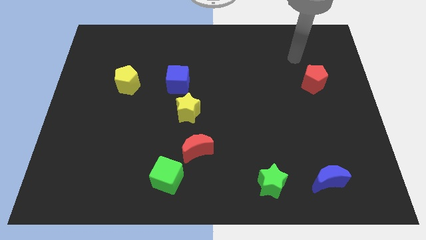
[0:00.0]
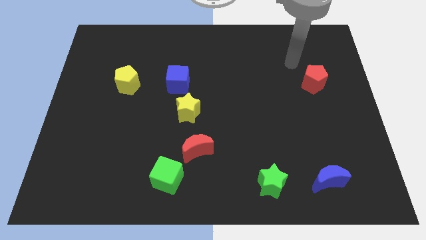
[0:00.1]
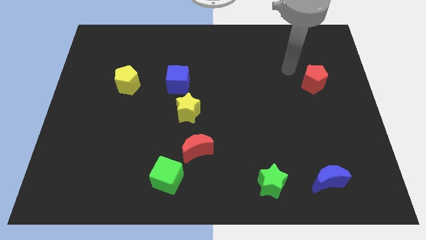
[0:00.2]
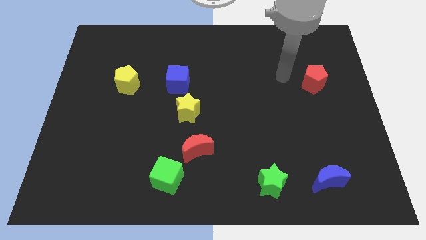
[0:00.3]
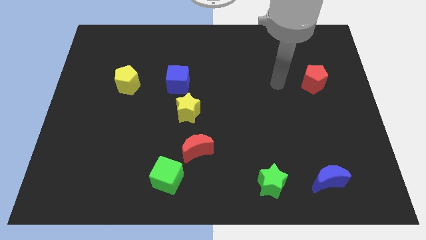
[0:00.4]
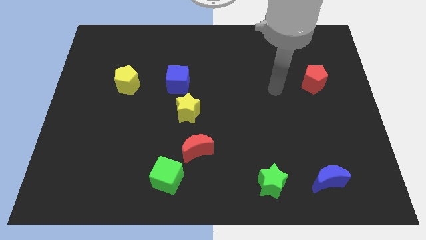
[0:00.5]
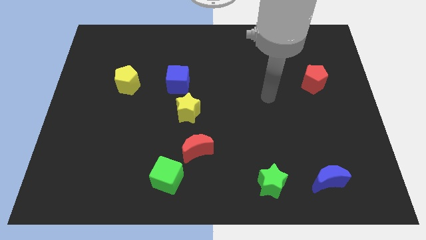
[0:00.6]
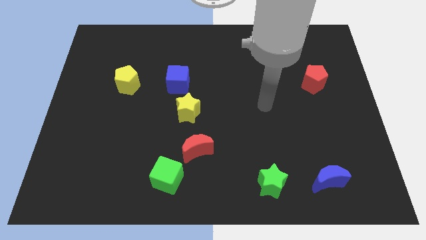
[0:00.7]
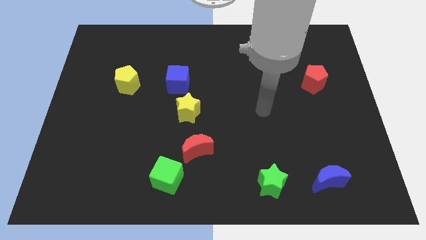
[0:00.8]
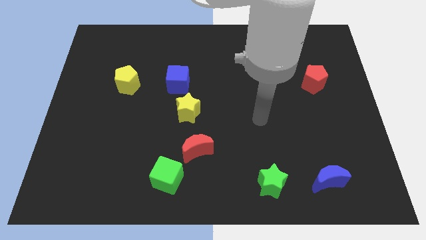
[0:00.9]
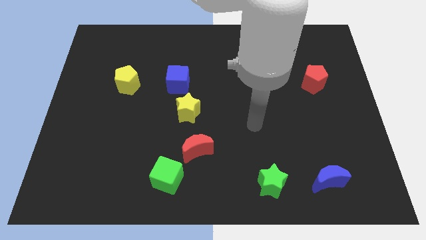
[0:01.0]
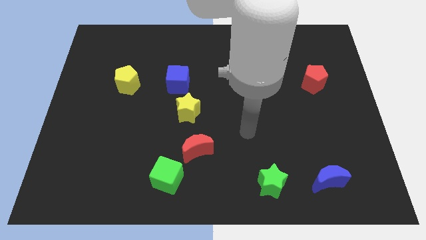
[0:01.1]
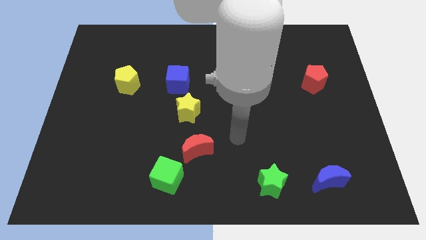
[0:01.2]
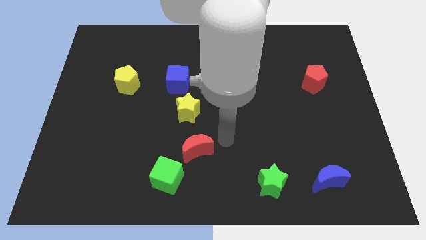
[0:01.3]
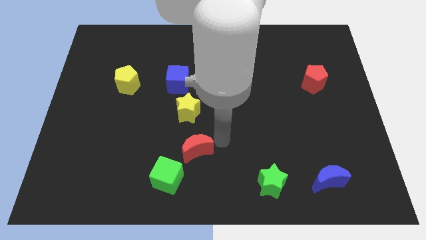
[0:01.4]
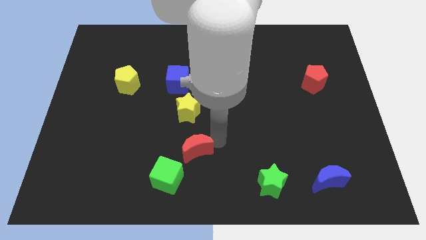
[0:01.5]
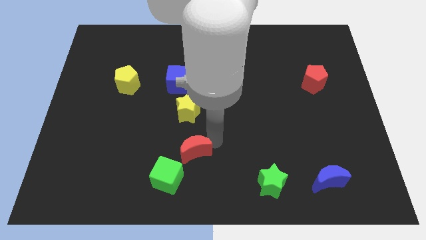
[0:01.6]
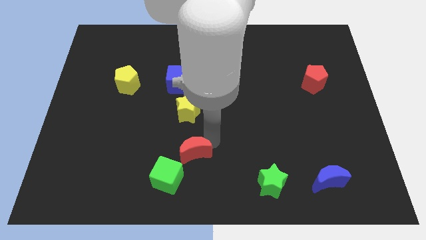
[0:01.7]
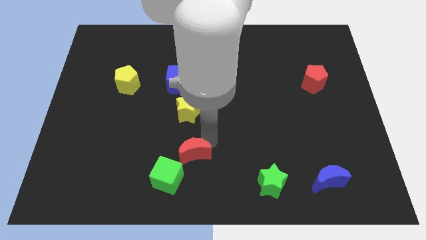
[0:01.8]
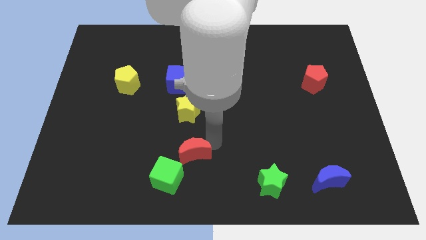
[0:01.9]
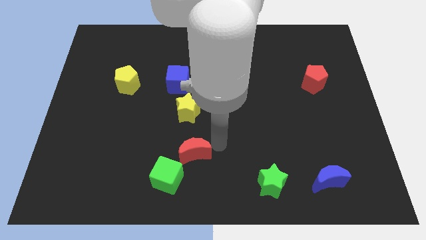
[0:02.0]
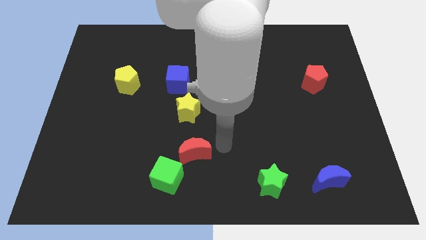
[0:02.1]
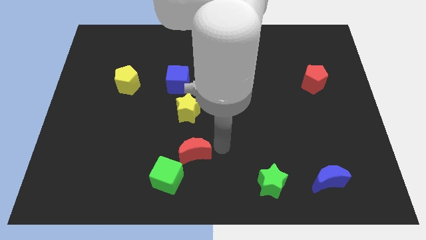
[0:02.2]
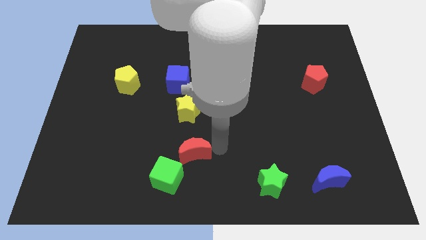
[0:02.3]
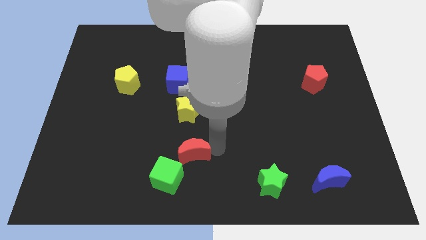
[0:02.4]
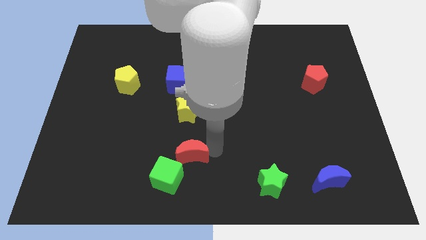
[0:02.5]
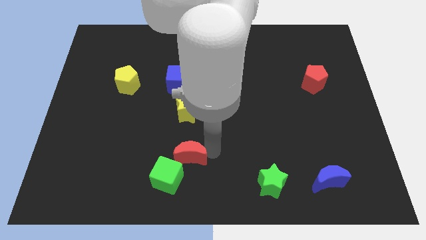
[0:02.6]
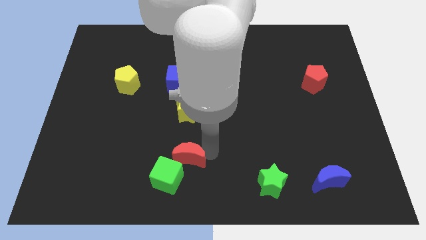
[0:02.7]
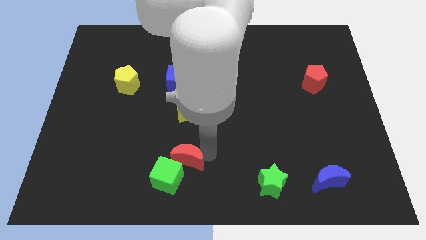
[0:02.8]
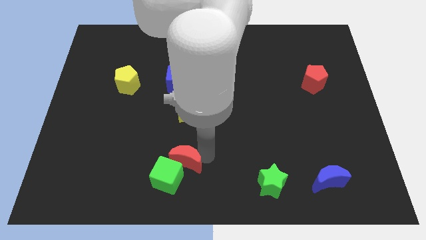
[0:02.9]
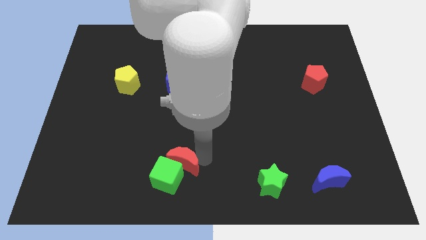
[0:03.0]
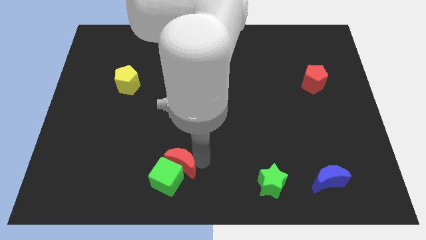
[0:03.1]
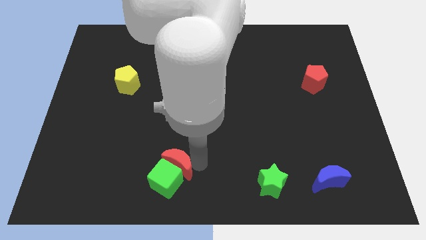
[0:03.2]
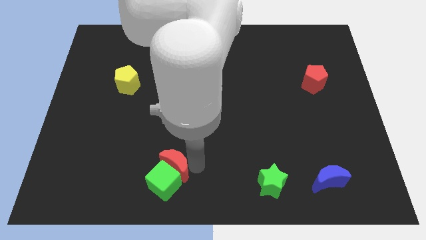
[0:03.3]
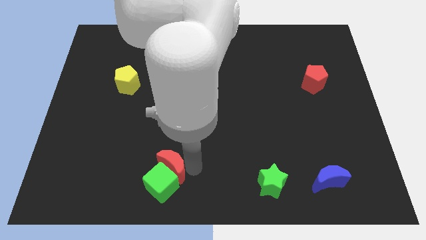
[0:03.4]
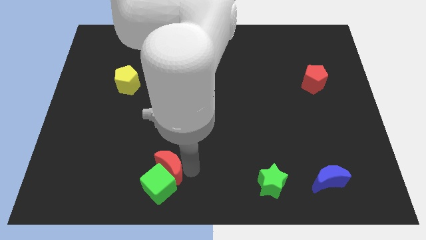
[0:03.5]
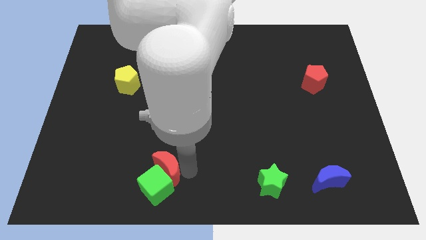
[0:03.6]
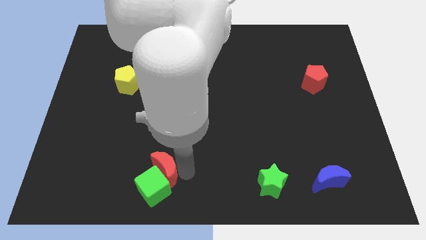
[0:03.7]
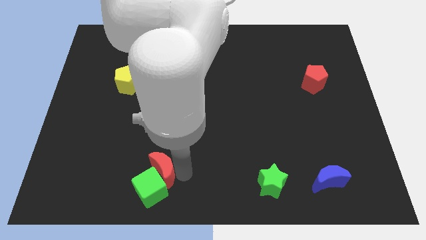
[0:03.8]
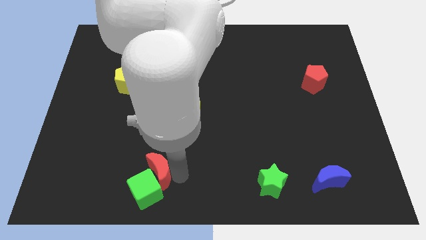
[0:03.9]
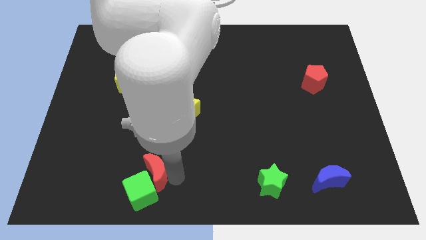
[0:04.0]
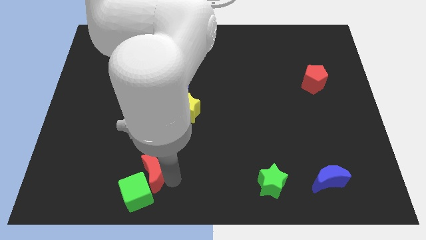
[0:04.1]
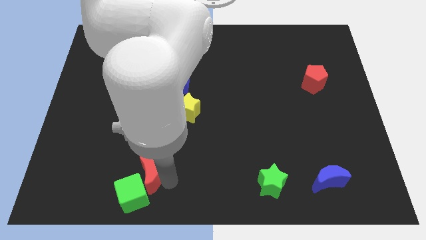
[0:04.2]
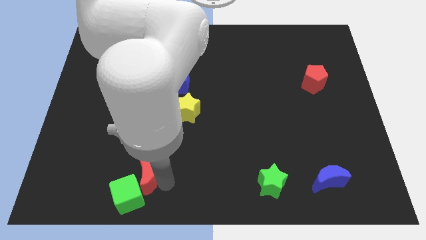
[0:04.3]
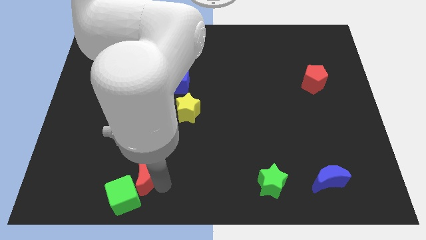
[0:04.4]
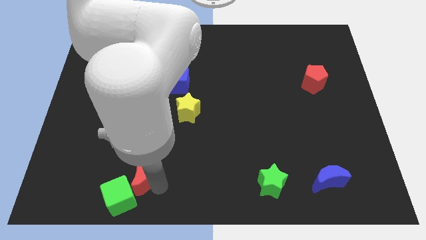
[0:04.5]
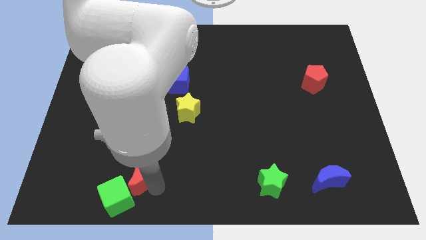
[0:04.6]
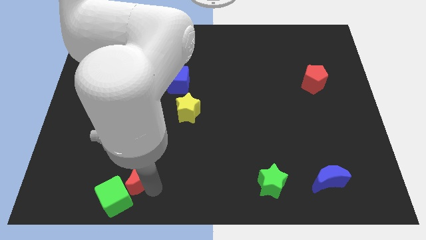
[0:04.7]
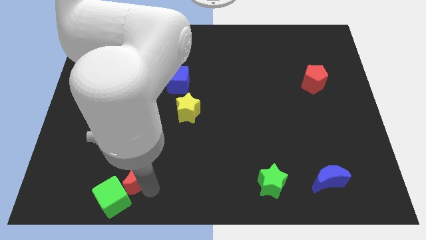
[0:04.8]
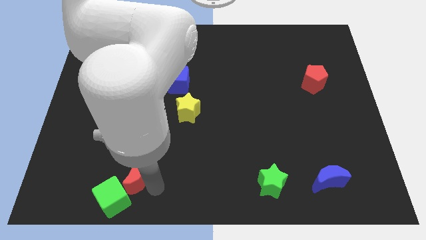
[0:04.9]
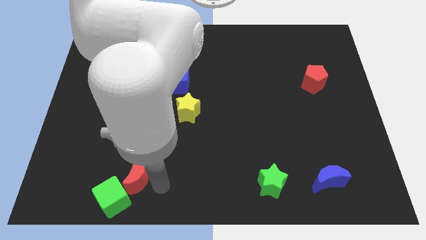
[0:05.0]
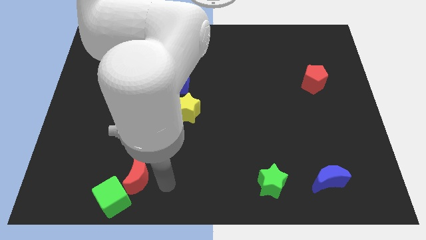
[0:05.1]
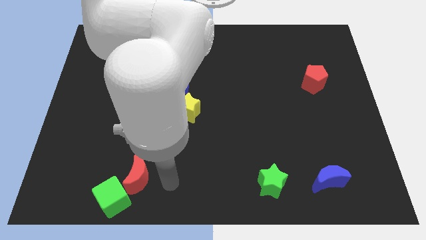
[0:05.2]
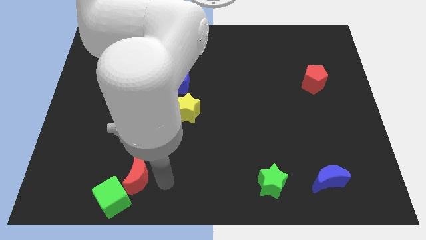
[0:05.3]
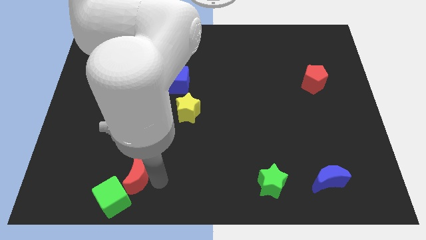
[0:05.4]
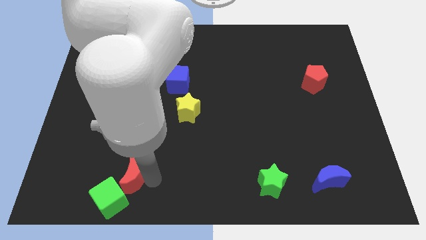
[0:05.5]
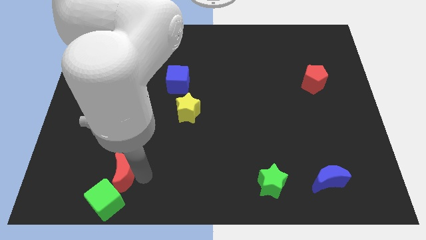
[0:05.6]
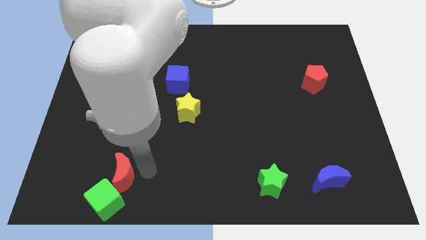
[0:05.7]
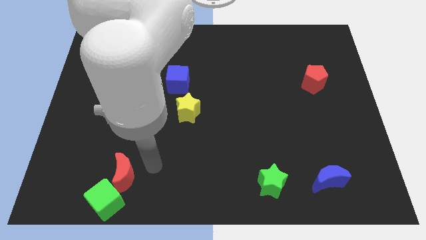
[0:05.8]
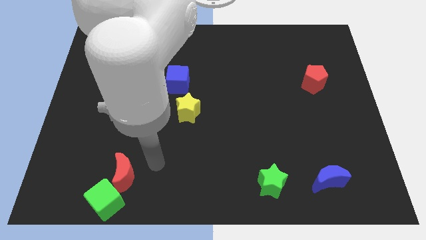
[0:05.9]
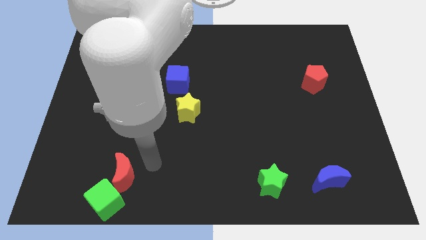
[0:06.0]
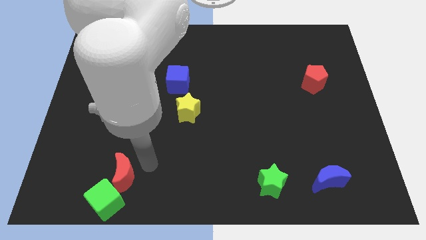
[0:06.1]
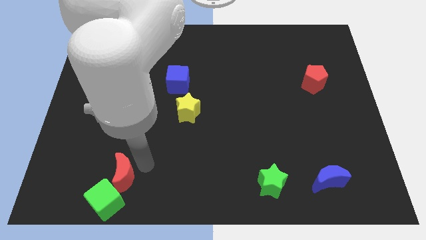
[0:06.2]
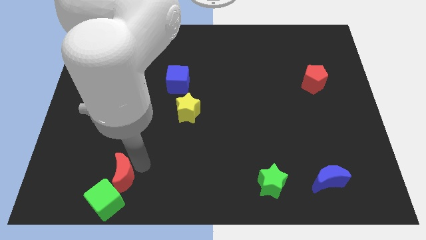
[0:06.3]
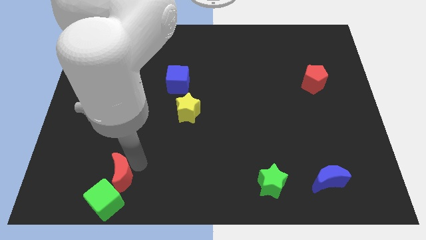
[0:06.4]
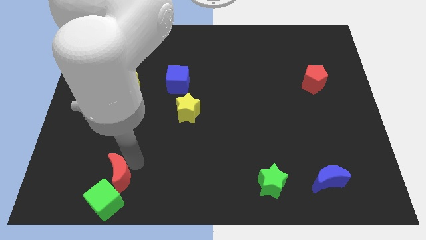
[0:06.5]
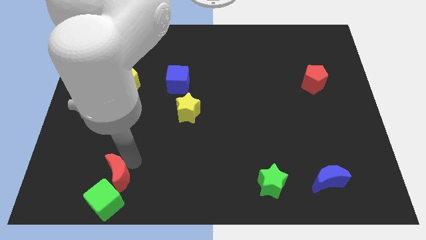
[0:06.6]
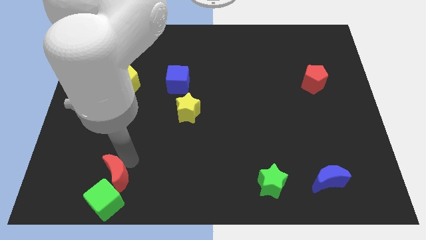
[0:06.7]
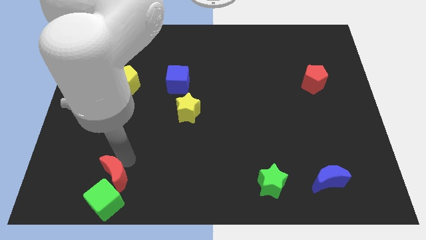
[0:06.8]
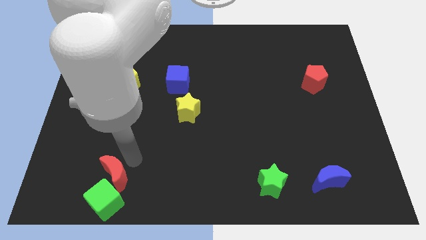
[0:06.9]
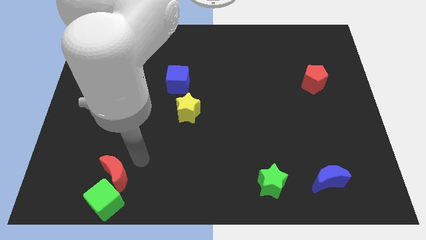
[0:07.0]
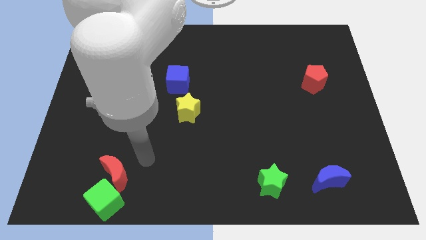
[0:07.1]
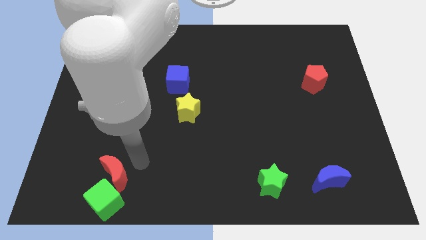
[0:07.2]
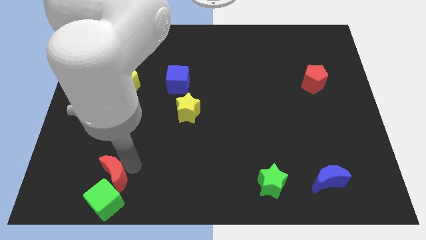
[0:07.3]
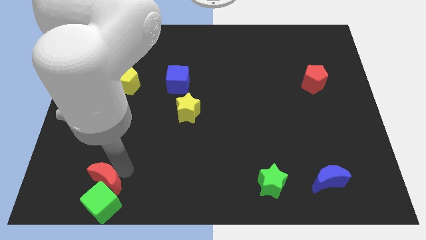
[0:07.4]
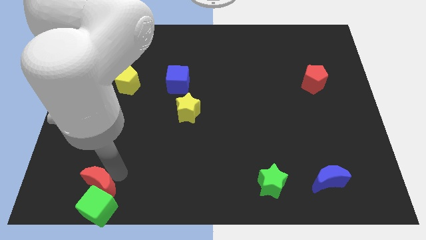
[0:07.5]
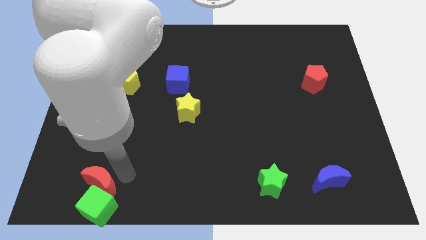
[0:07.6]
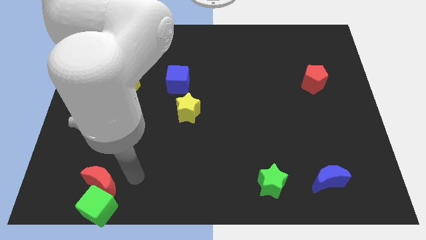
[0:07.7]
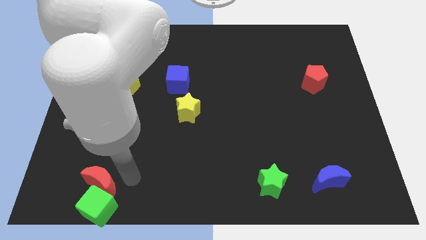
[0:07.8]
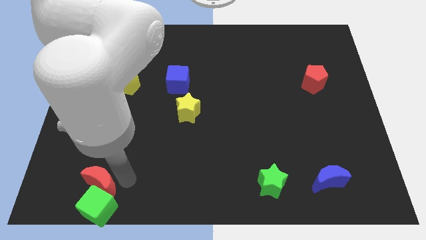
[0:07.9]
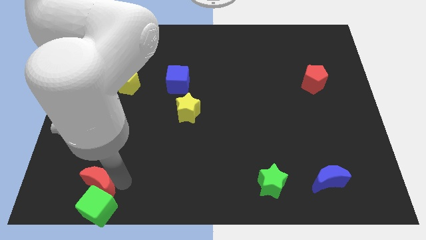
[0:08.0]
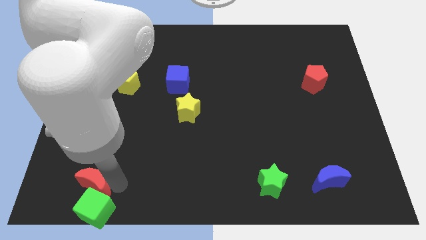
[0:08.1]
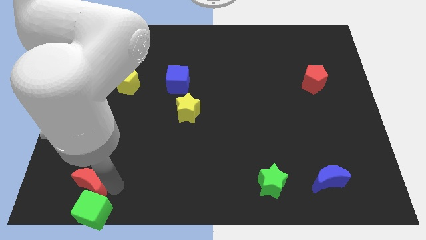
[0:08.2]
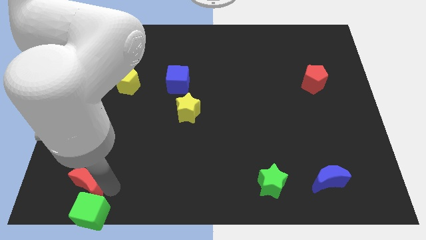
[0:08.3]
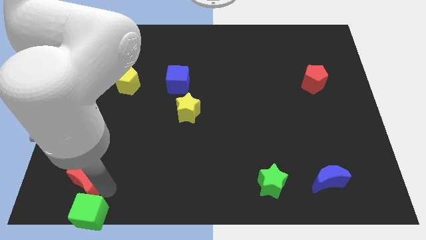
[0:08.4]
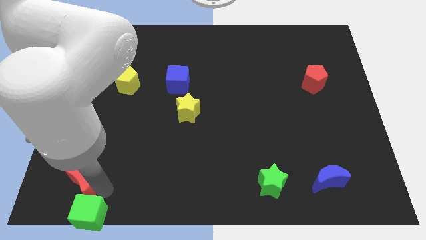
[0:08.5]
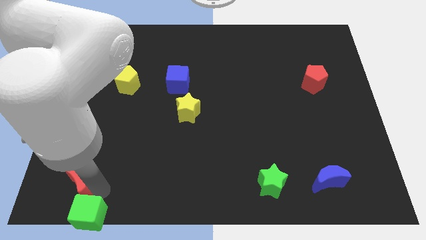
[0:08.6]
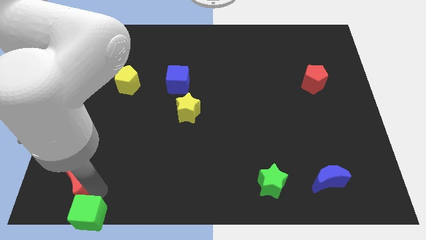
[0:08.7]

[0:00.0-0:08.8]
push the red moon to the lower left corner
